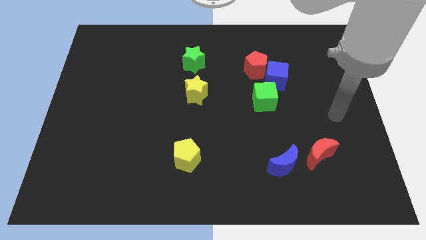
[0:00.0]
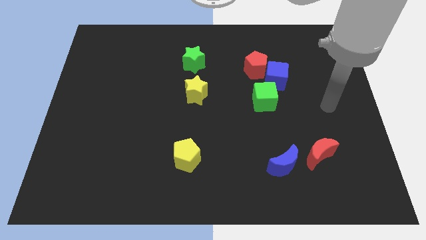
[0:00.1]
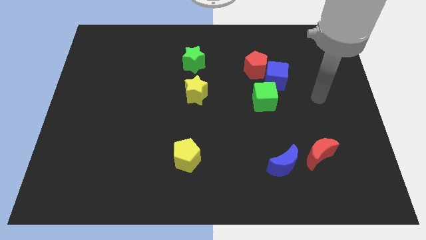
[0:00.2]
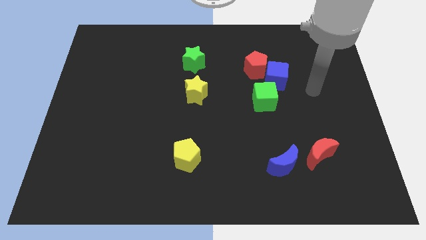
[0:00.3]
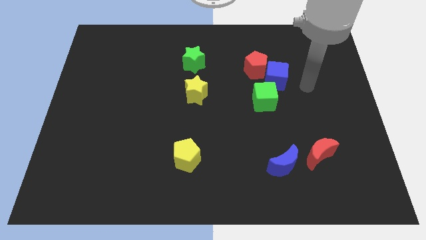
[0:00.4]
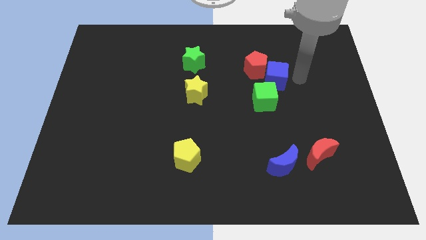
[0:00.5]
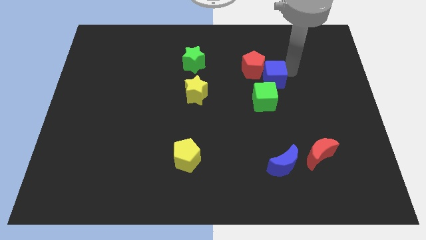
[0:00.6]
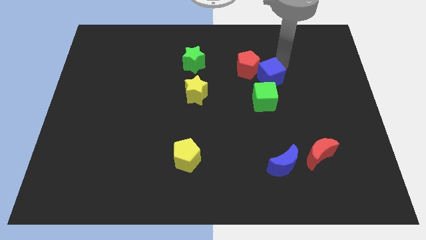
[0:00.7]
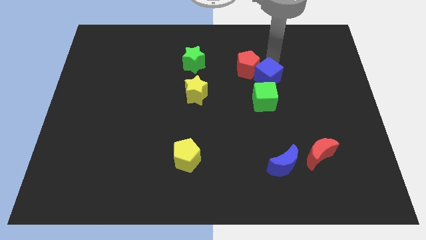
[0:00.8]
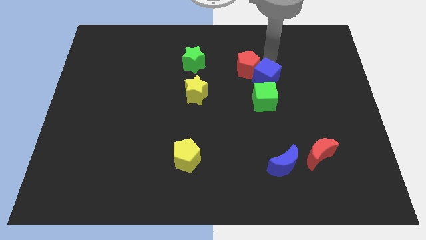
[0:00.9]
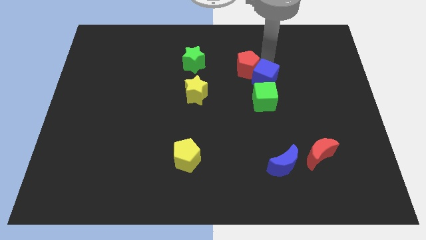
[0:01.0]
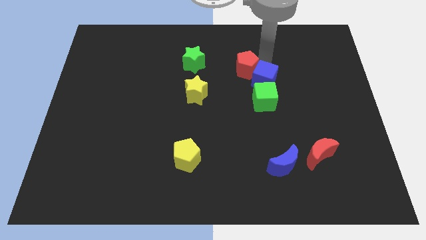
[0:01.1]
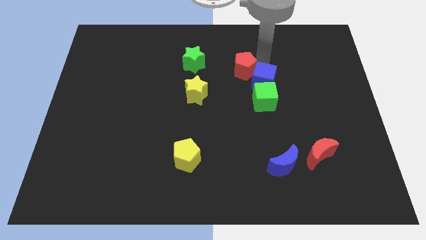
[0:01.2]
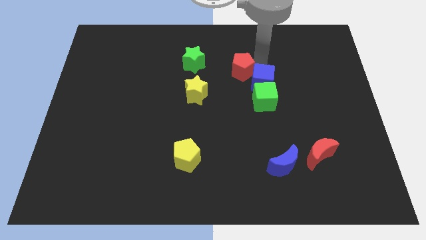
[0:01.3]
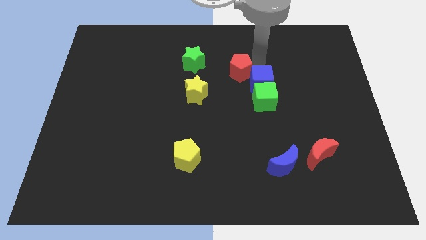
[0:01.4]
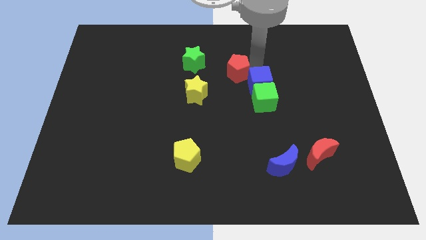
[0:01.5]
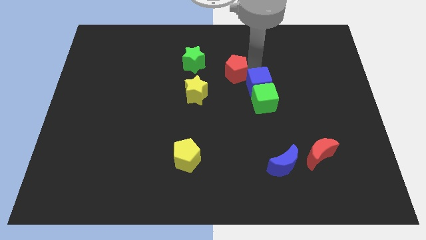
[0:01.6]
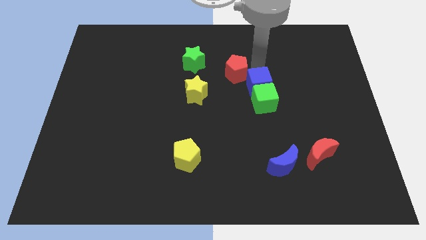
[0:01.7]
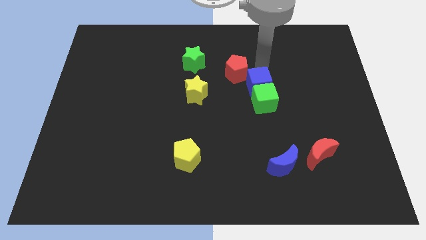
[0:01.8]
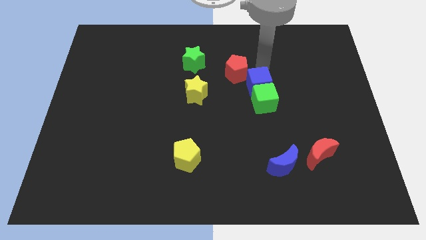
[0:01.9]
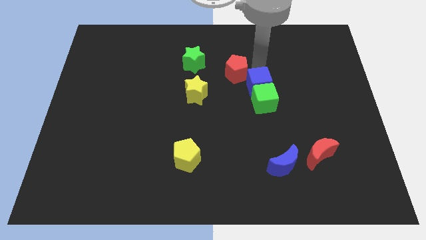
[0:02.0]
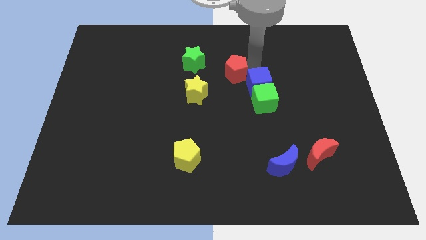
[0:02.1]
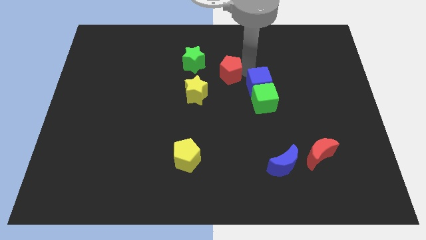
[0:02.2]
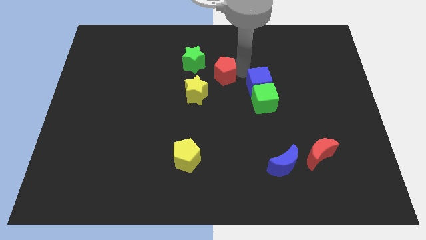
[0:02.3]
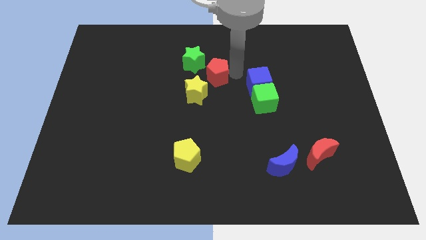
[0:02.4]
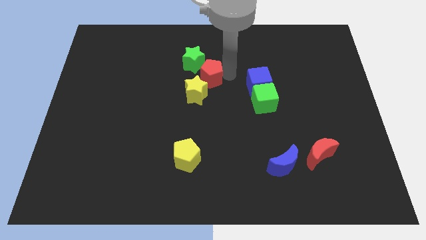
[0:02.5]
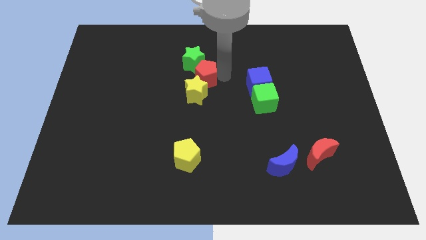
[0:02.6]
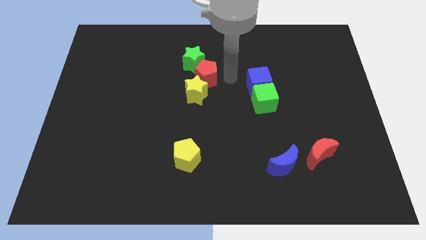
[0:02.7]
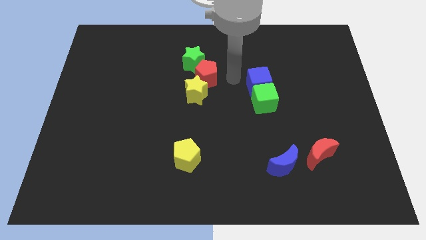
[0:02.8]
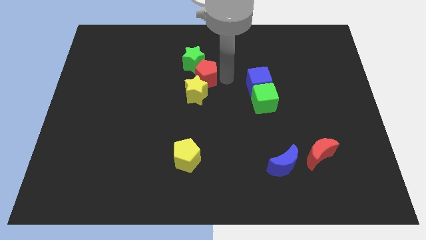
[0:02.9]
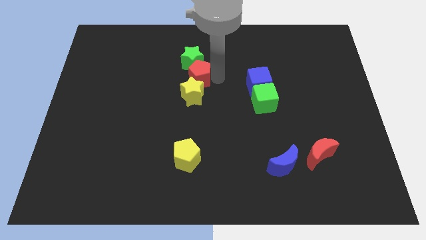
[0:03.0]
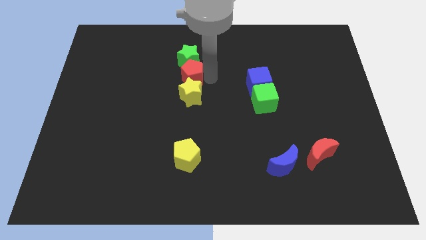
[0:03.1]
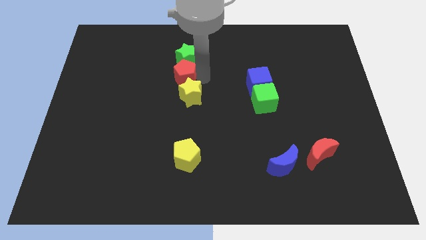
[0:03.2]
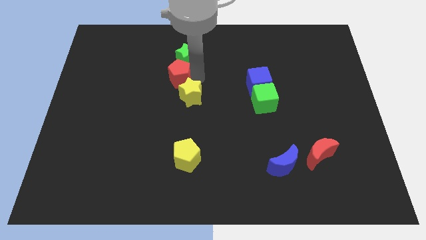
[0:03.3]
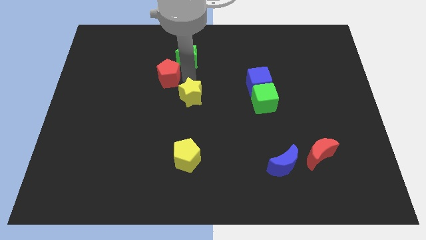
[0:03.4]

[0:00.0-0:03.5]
move the red pentagon left

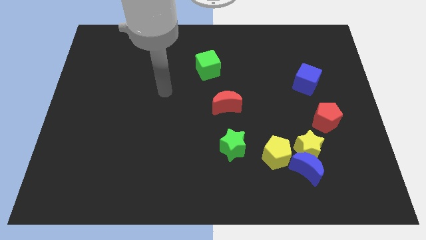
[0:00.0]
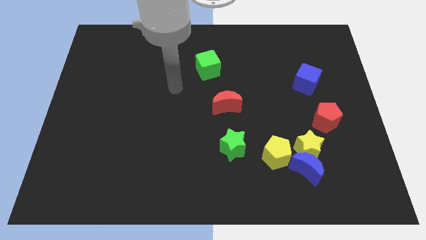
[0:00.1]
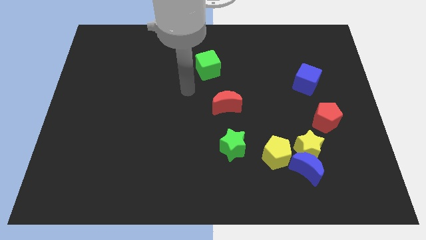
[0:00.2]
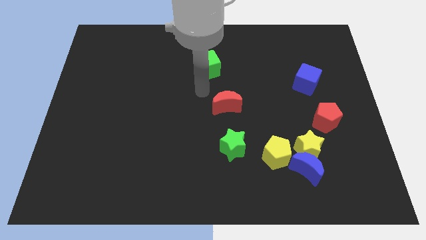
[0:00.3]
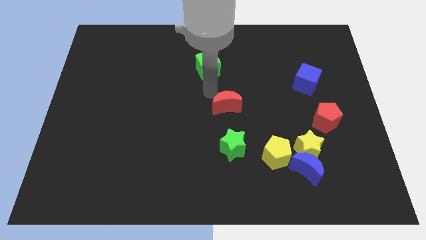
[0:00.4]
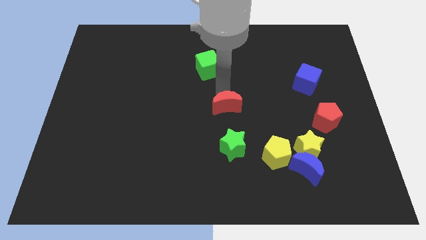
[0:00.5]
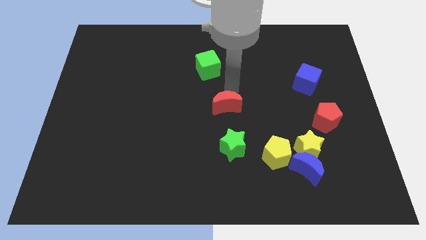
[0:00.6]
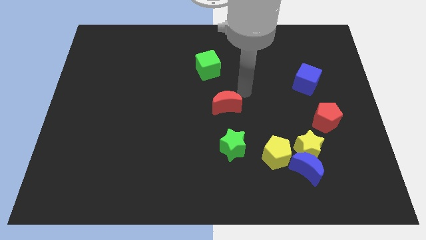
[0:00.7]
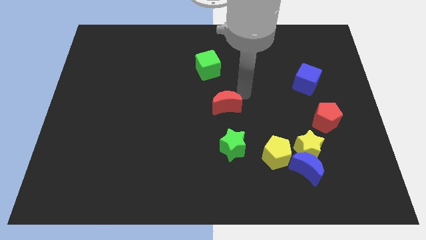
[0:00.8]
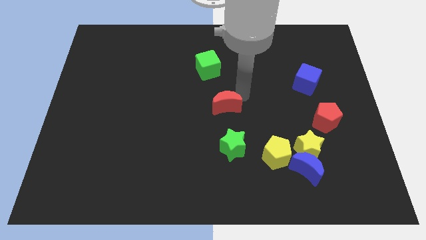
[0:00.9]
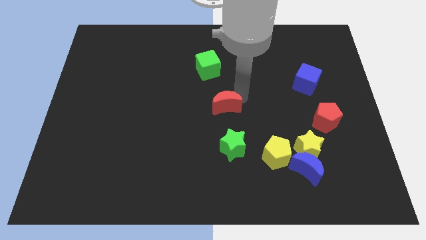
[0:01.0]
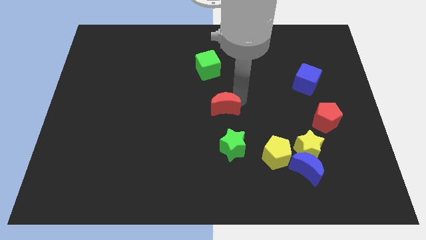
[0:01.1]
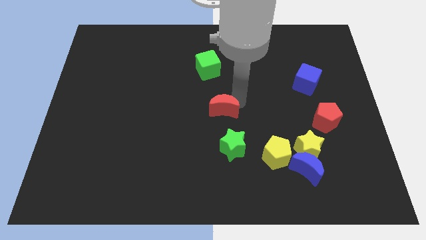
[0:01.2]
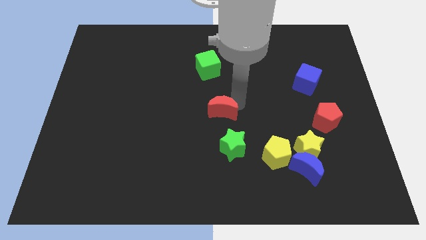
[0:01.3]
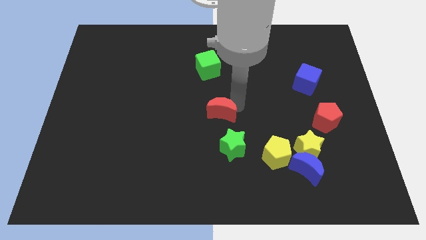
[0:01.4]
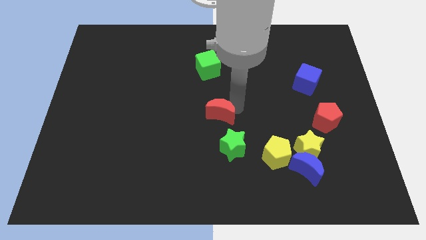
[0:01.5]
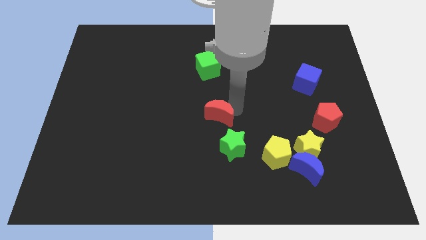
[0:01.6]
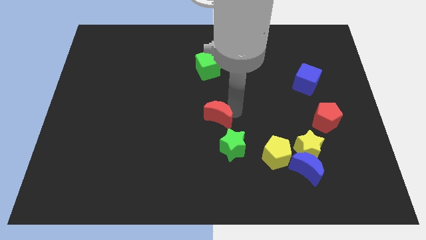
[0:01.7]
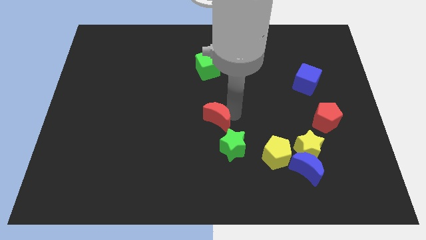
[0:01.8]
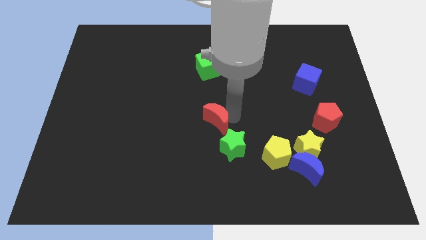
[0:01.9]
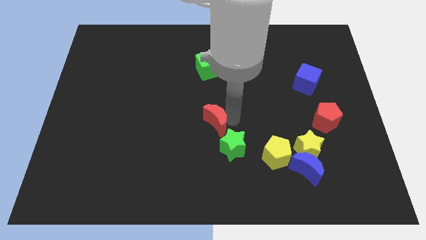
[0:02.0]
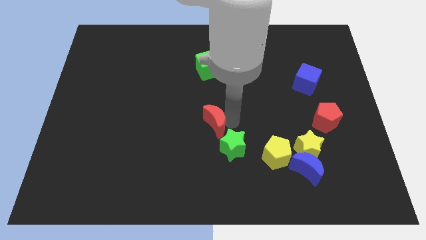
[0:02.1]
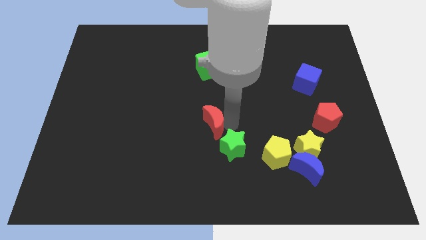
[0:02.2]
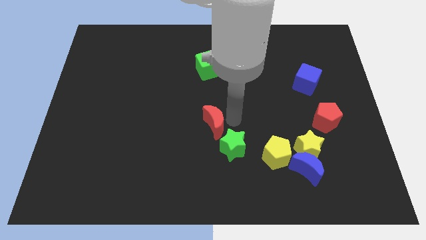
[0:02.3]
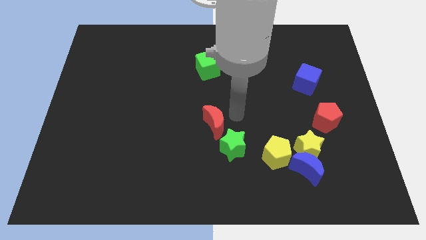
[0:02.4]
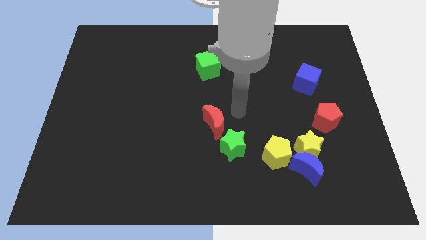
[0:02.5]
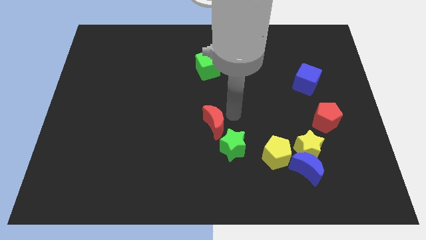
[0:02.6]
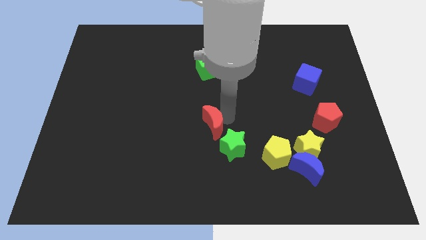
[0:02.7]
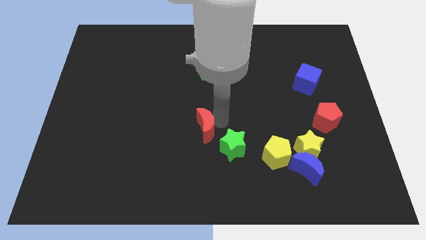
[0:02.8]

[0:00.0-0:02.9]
slide the red moon diagonally down and left somewhat

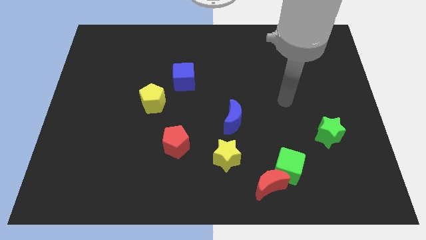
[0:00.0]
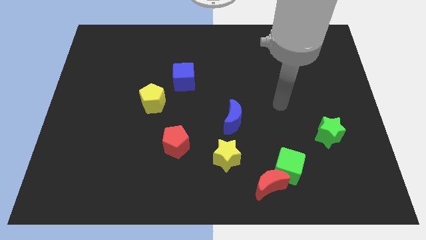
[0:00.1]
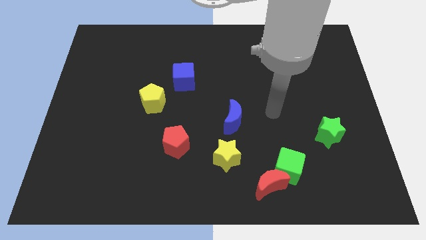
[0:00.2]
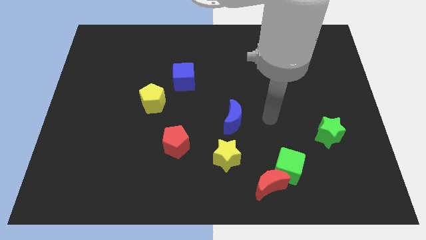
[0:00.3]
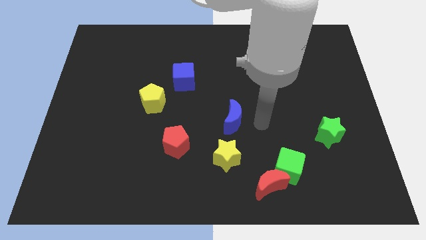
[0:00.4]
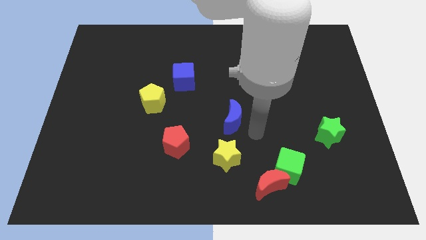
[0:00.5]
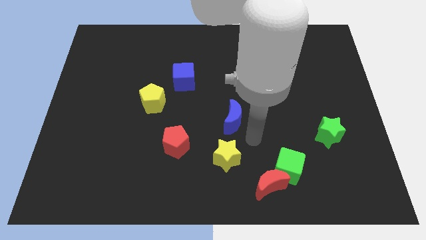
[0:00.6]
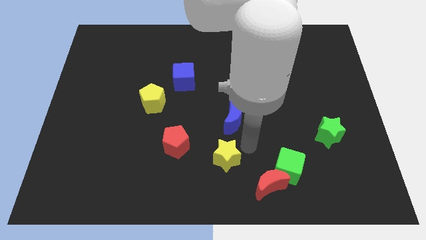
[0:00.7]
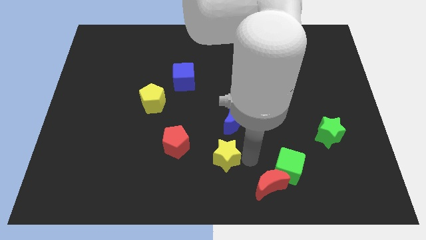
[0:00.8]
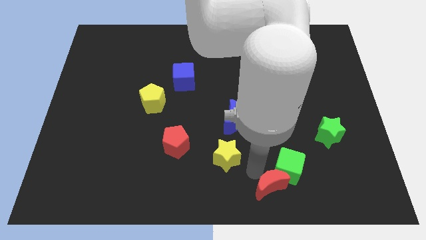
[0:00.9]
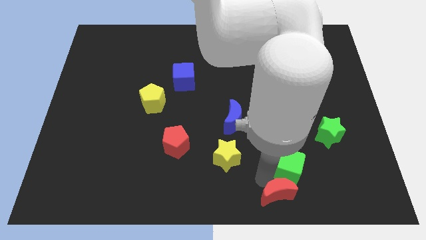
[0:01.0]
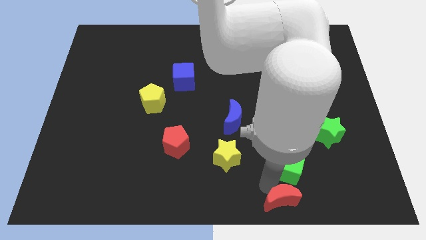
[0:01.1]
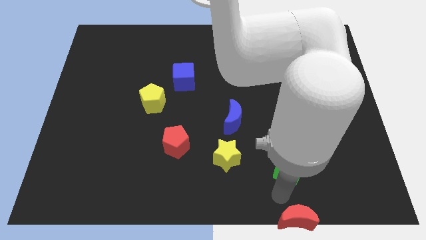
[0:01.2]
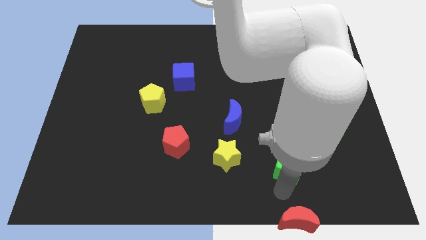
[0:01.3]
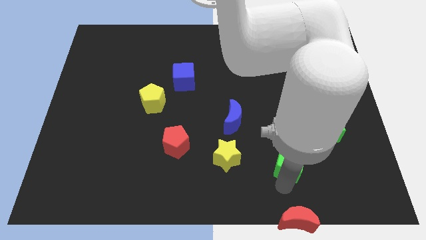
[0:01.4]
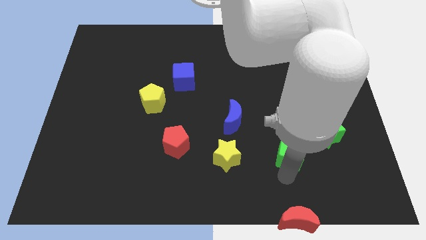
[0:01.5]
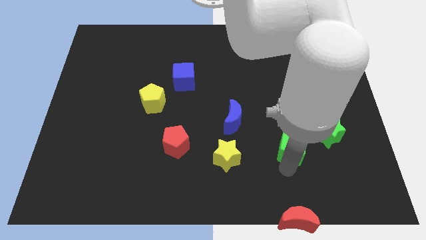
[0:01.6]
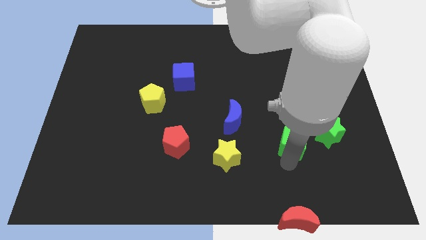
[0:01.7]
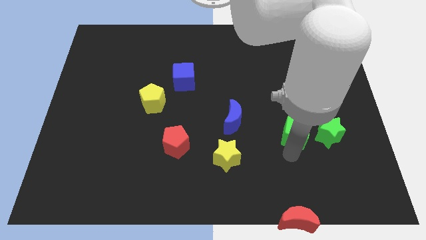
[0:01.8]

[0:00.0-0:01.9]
slightly move the green cube upwards
